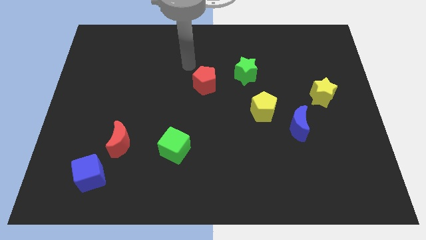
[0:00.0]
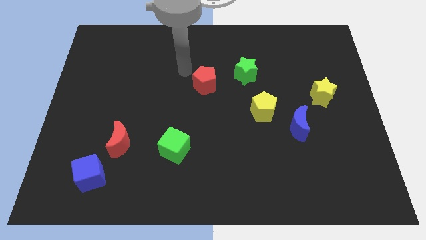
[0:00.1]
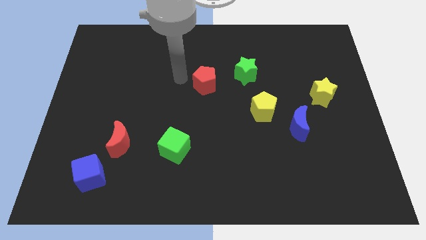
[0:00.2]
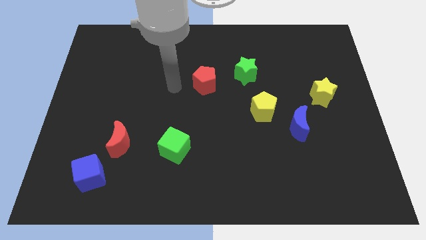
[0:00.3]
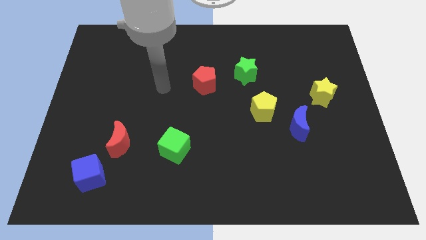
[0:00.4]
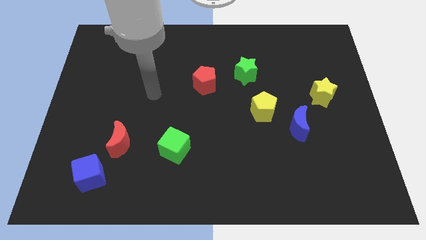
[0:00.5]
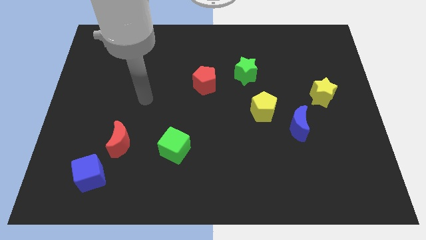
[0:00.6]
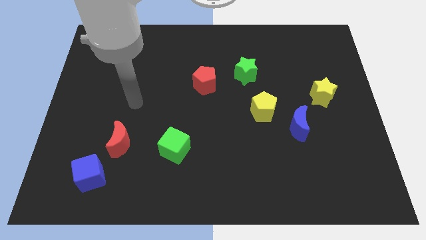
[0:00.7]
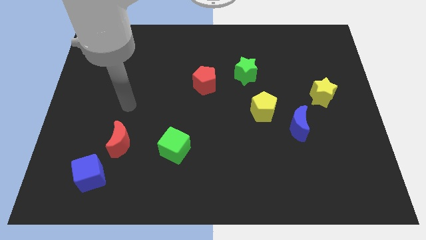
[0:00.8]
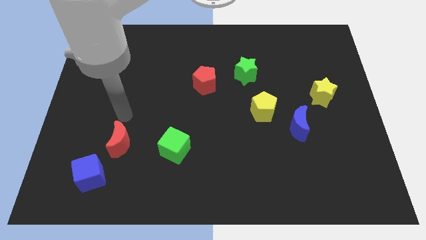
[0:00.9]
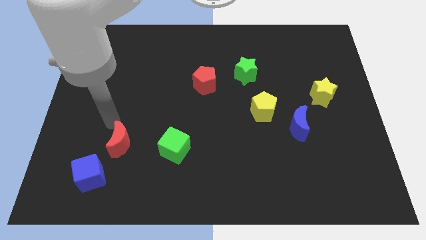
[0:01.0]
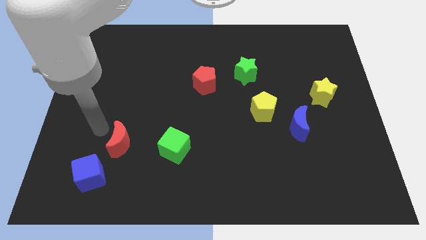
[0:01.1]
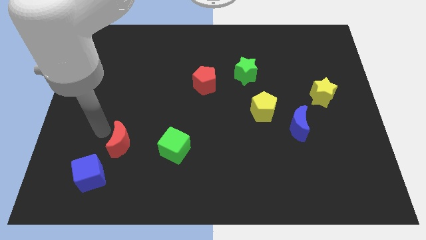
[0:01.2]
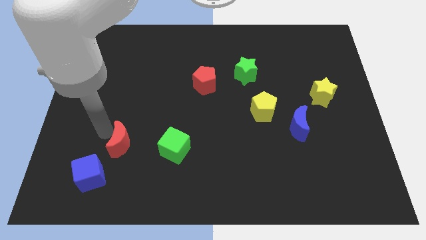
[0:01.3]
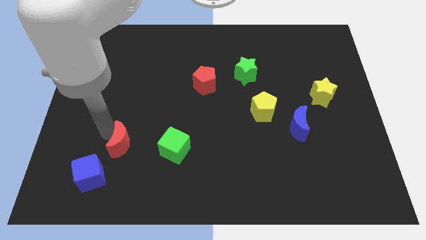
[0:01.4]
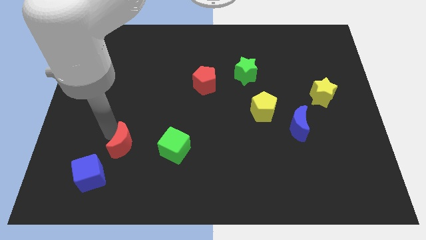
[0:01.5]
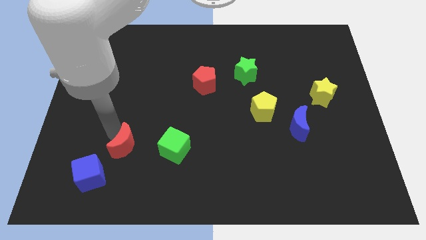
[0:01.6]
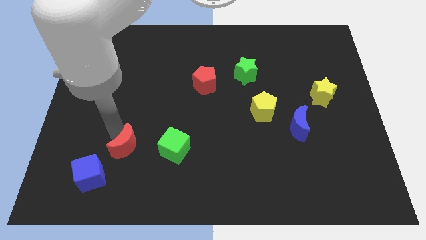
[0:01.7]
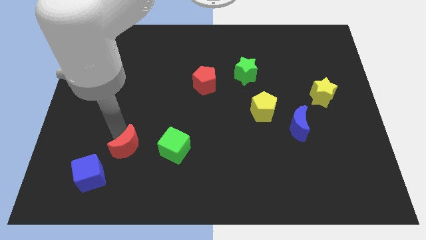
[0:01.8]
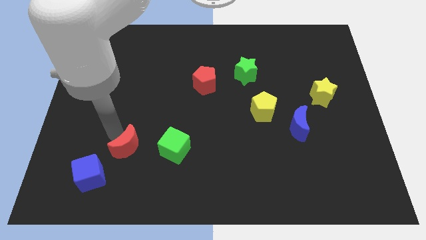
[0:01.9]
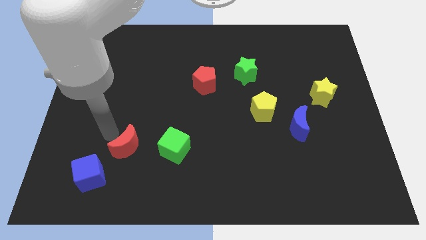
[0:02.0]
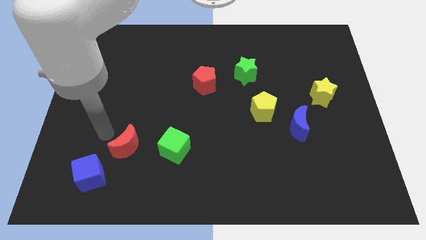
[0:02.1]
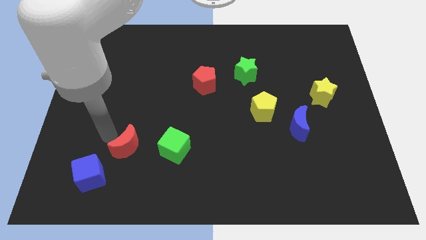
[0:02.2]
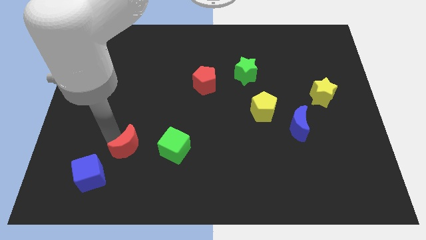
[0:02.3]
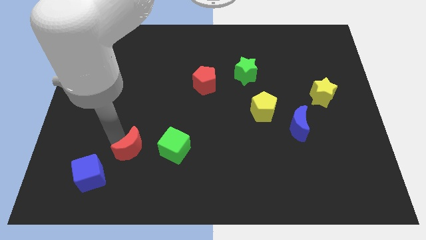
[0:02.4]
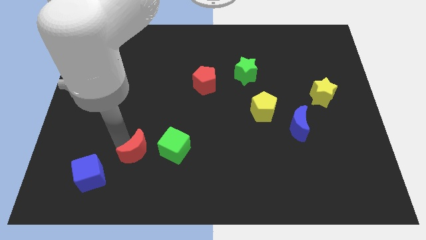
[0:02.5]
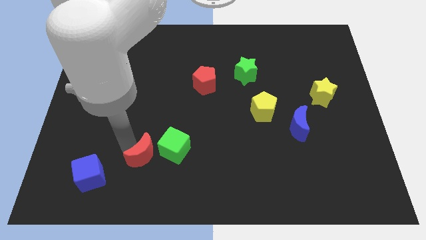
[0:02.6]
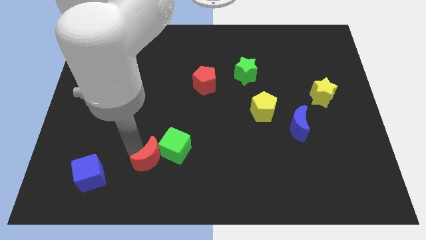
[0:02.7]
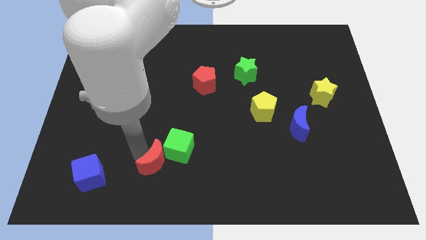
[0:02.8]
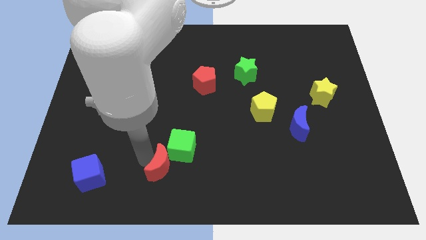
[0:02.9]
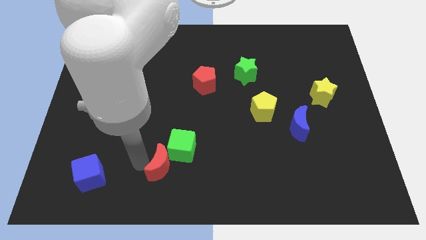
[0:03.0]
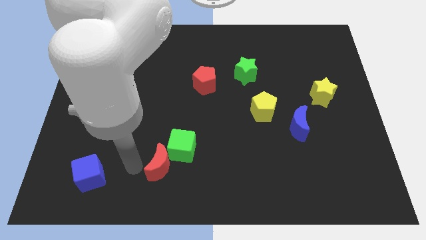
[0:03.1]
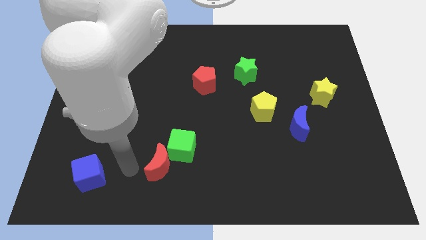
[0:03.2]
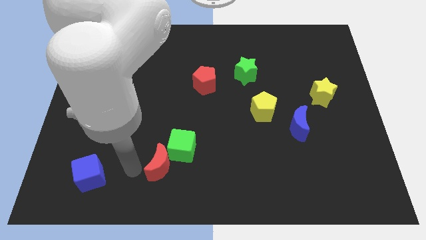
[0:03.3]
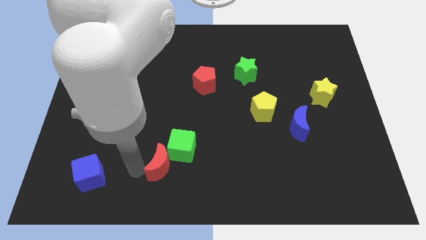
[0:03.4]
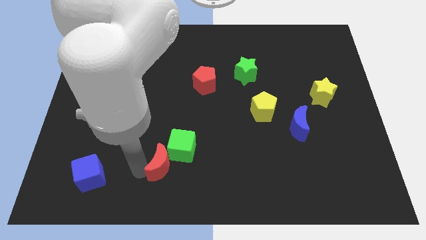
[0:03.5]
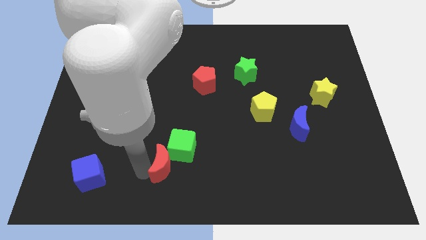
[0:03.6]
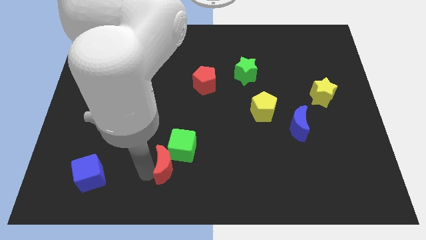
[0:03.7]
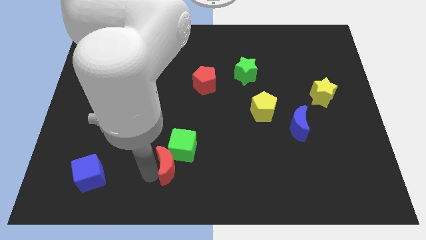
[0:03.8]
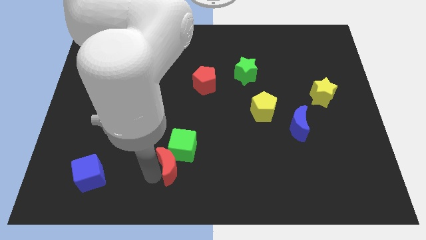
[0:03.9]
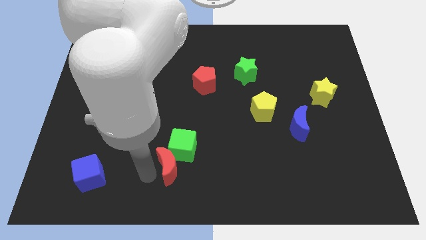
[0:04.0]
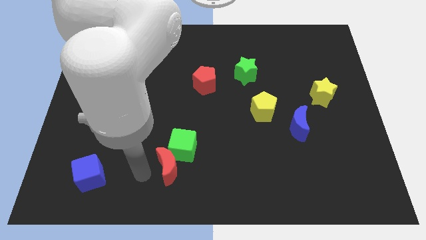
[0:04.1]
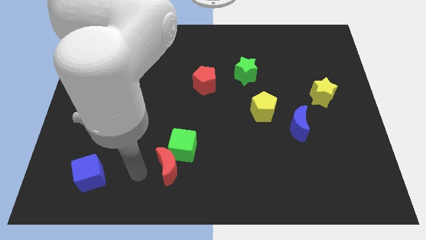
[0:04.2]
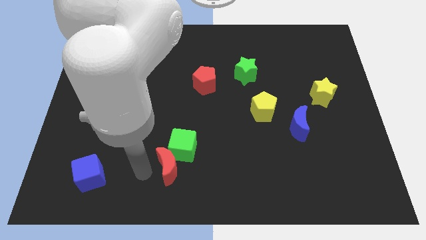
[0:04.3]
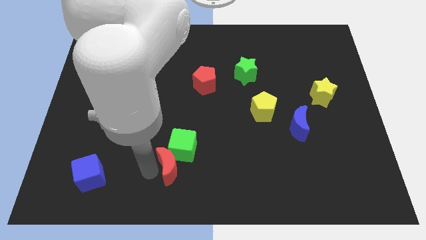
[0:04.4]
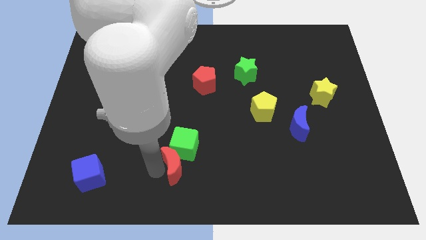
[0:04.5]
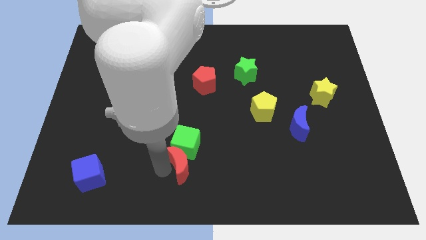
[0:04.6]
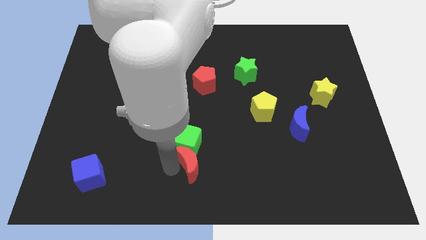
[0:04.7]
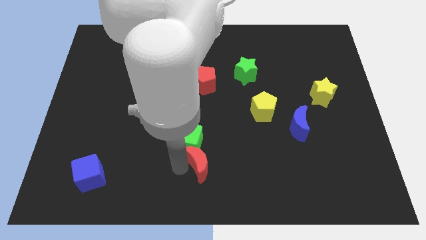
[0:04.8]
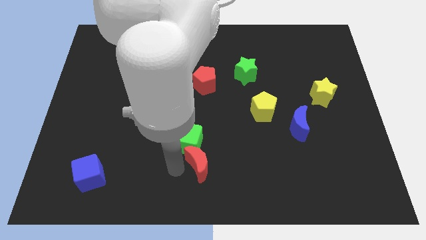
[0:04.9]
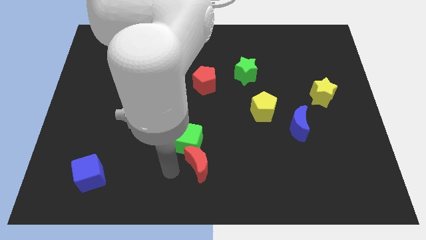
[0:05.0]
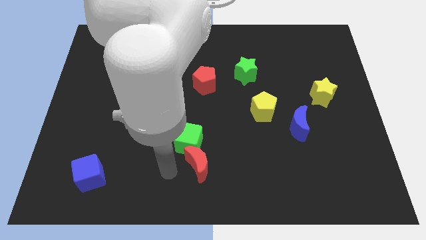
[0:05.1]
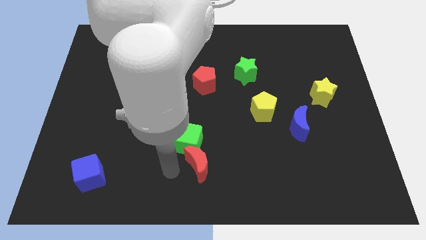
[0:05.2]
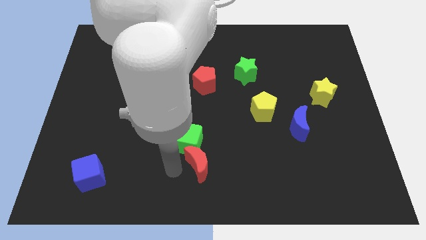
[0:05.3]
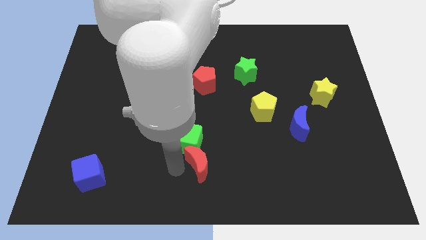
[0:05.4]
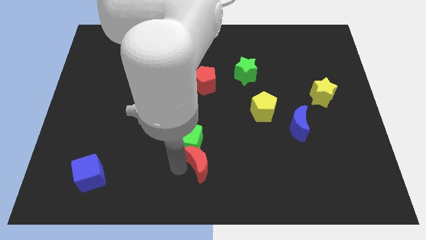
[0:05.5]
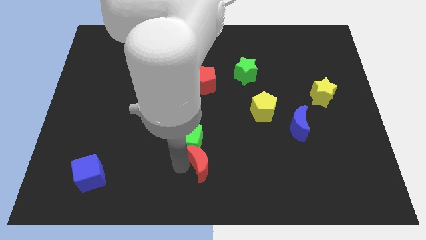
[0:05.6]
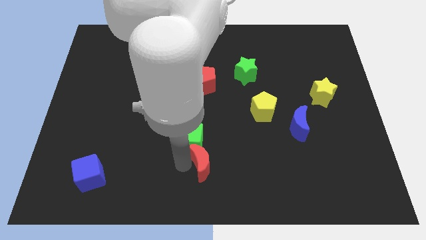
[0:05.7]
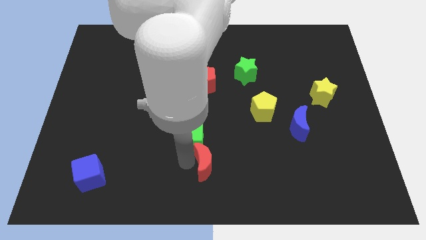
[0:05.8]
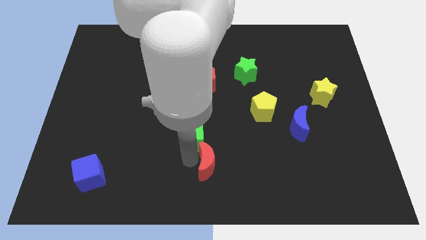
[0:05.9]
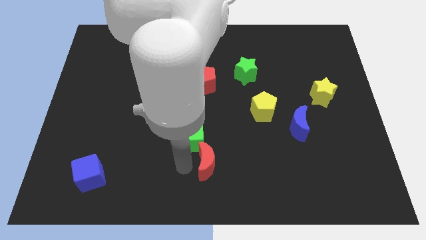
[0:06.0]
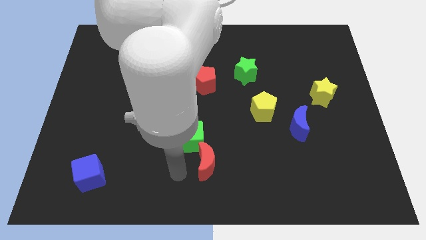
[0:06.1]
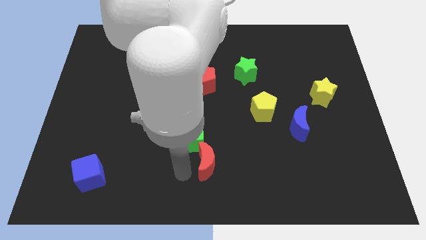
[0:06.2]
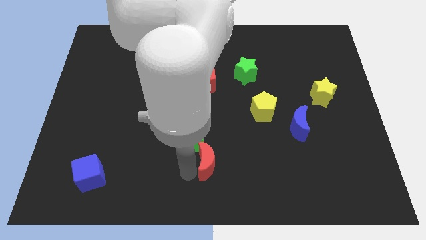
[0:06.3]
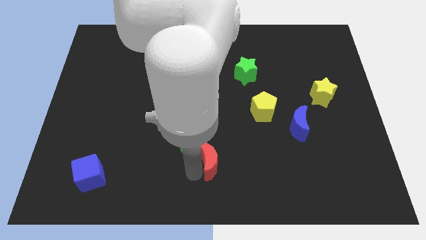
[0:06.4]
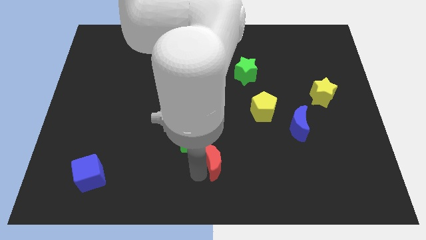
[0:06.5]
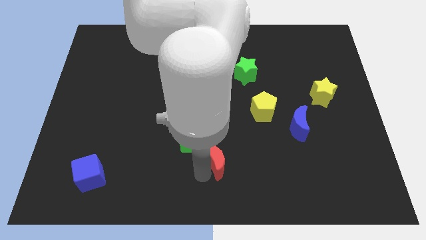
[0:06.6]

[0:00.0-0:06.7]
slide the red moon right

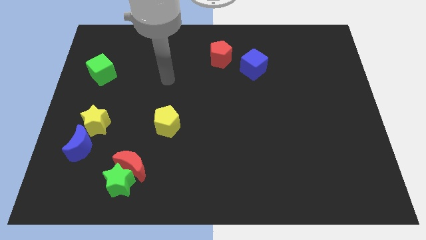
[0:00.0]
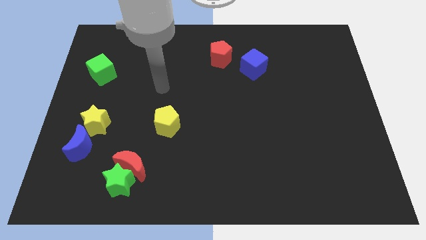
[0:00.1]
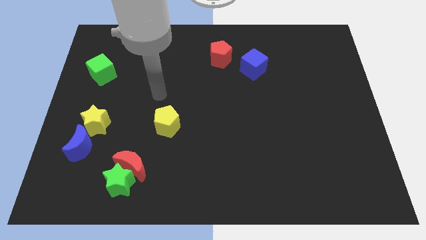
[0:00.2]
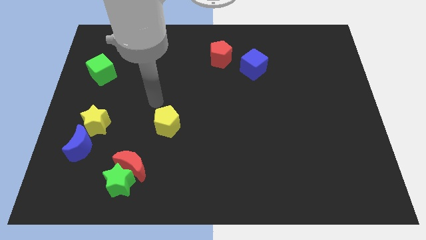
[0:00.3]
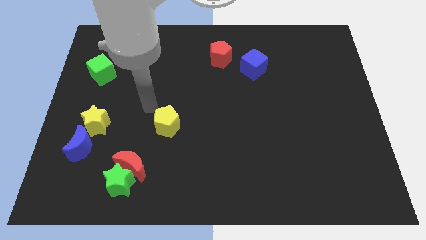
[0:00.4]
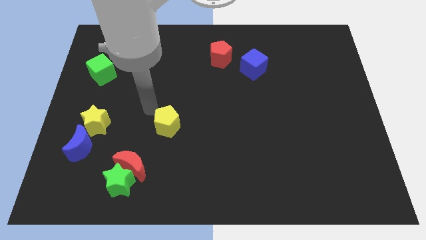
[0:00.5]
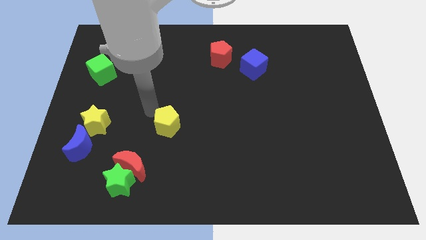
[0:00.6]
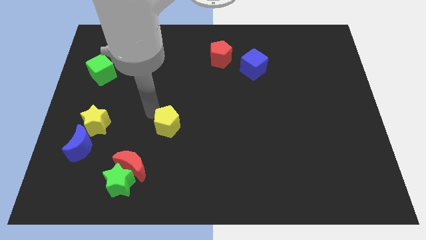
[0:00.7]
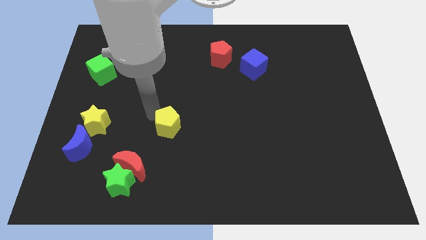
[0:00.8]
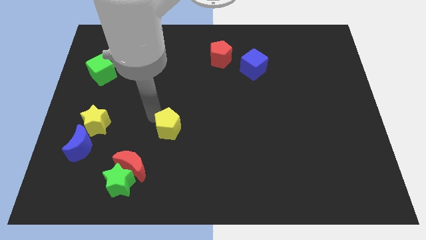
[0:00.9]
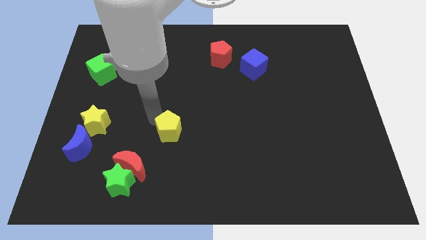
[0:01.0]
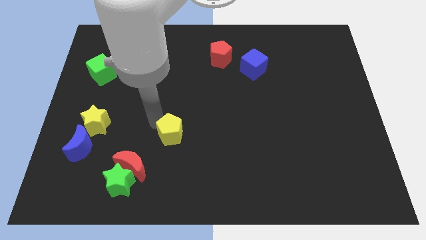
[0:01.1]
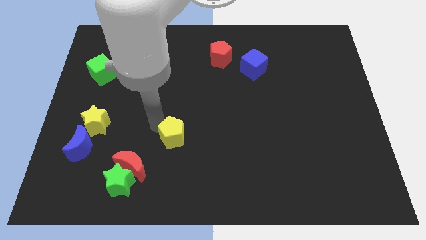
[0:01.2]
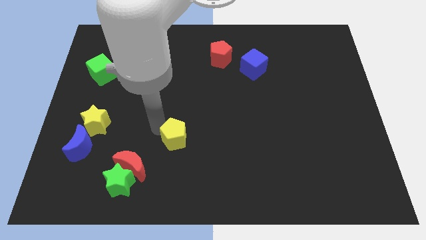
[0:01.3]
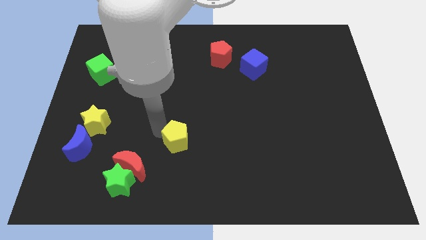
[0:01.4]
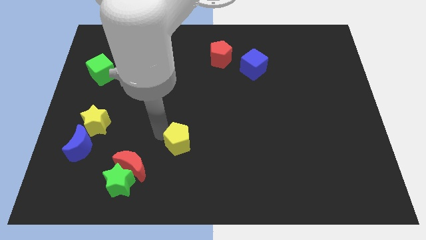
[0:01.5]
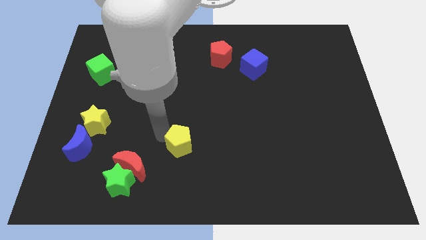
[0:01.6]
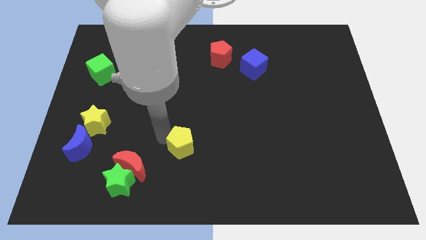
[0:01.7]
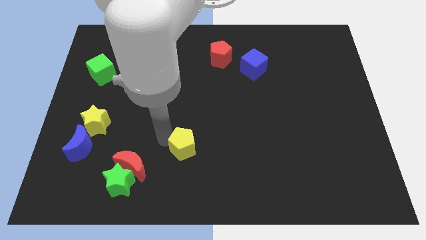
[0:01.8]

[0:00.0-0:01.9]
move the yellow pentagon a little diagonally down and right
